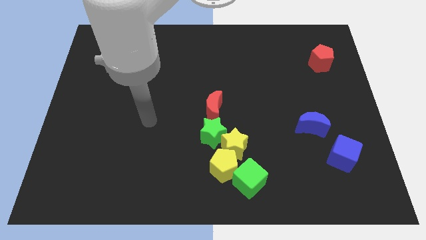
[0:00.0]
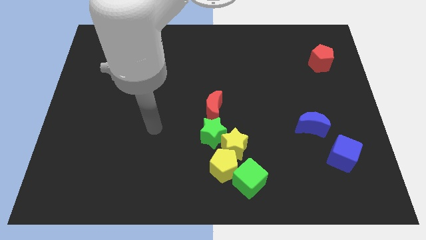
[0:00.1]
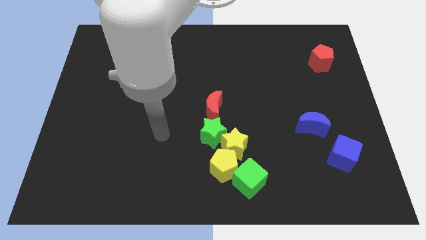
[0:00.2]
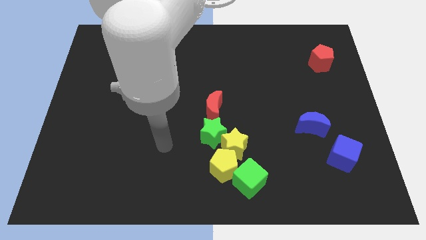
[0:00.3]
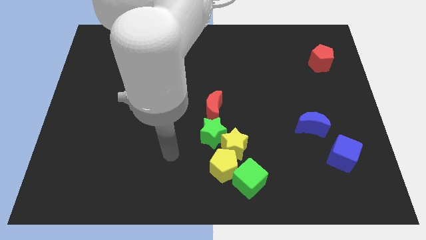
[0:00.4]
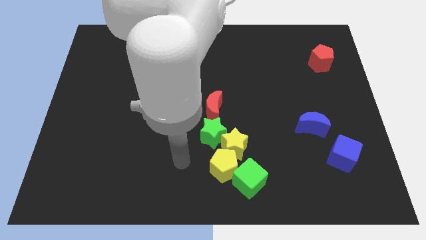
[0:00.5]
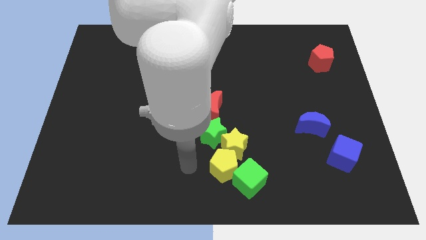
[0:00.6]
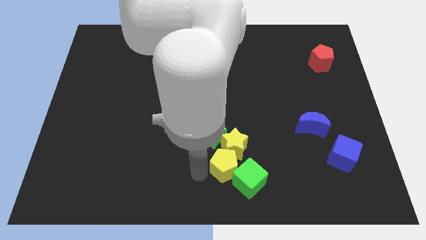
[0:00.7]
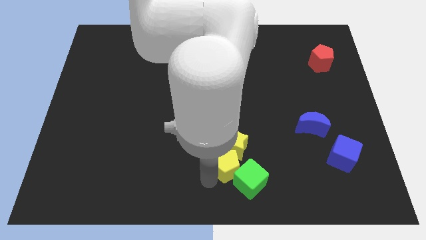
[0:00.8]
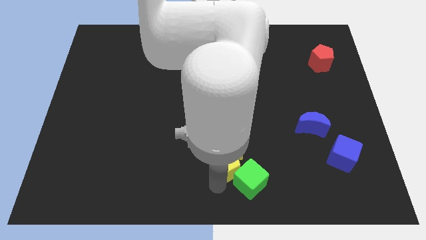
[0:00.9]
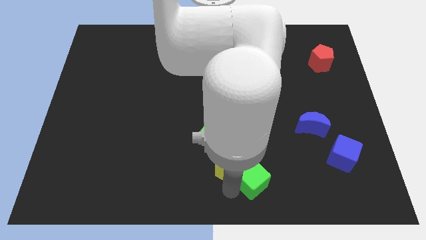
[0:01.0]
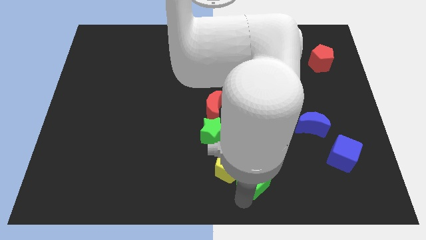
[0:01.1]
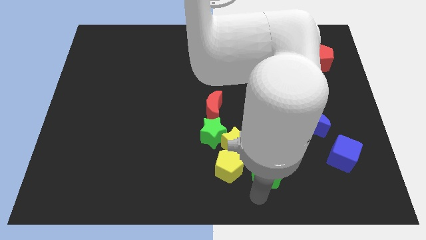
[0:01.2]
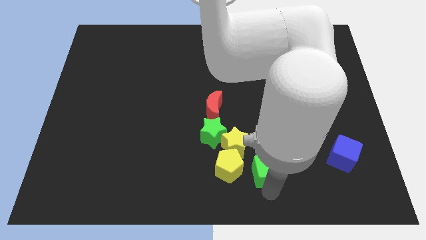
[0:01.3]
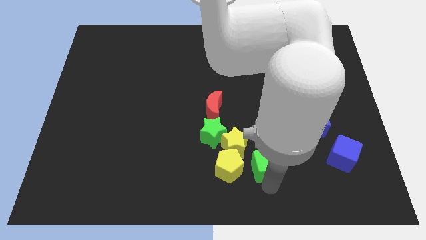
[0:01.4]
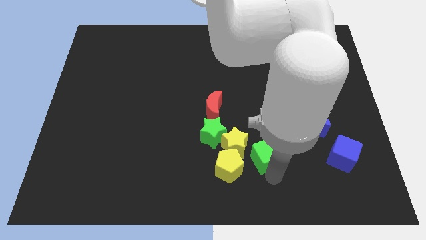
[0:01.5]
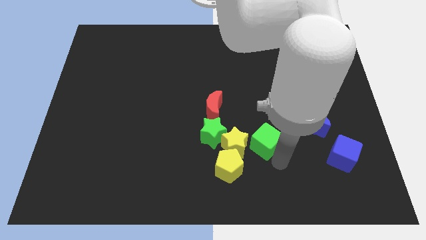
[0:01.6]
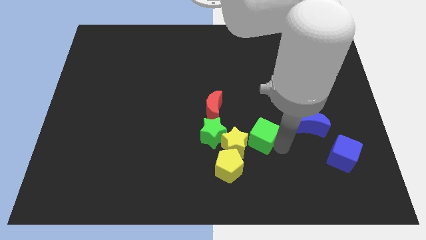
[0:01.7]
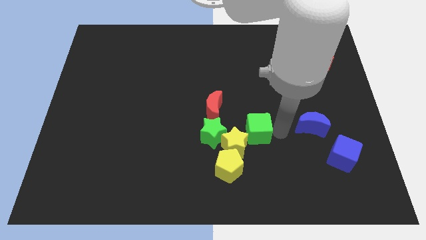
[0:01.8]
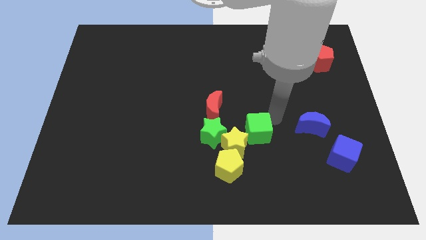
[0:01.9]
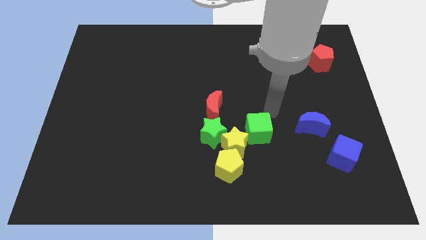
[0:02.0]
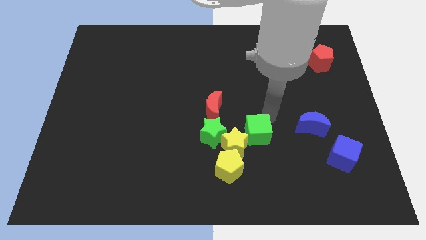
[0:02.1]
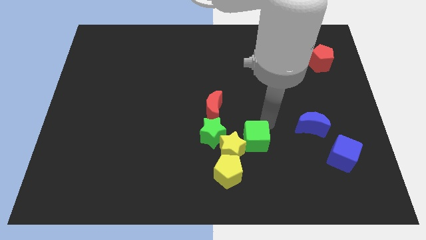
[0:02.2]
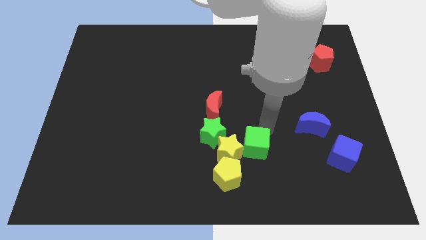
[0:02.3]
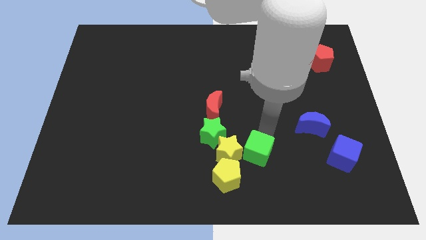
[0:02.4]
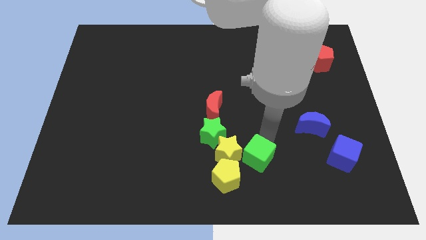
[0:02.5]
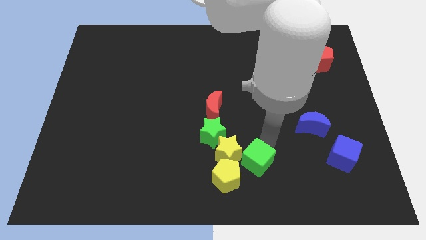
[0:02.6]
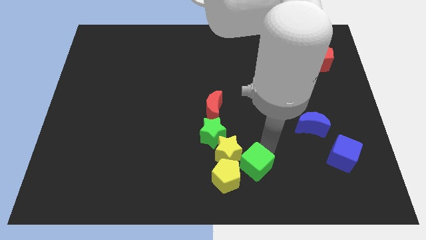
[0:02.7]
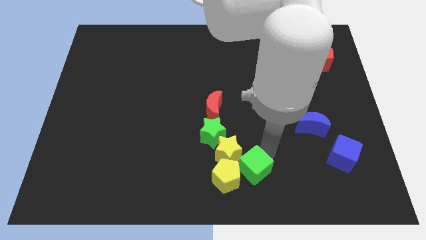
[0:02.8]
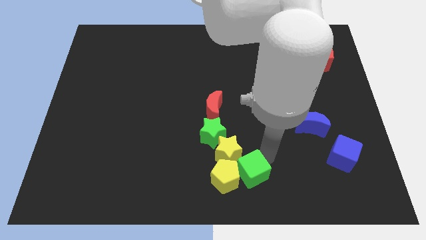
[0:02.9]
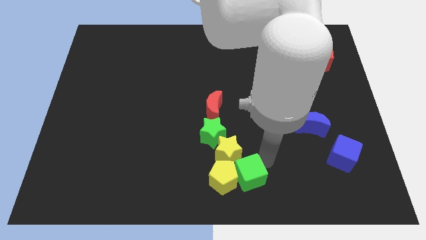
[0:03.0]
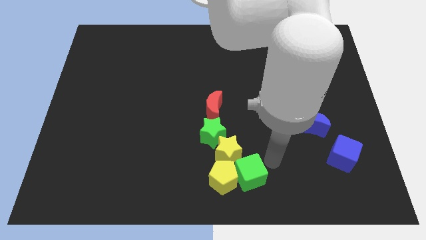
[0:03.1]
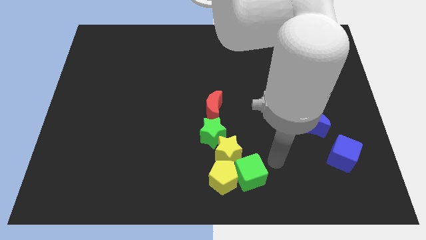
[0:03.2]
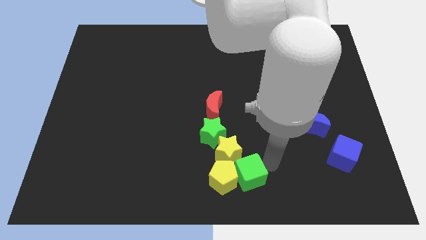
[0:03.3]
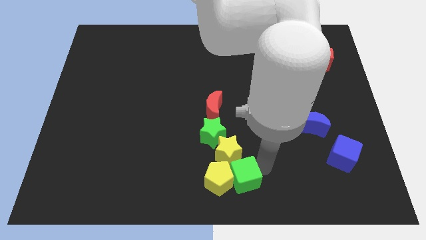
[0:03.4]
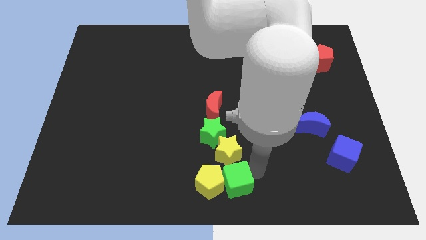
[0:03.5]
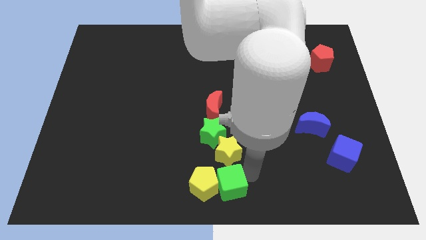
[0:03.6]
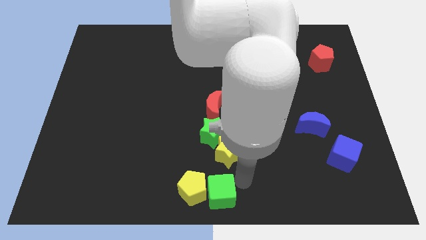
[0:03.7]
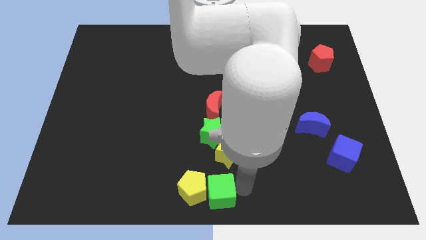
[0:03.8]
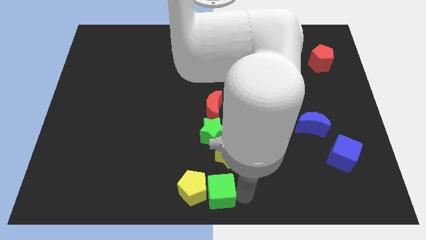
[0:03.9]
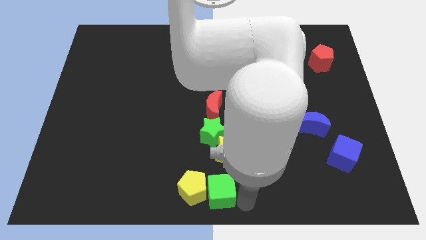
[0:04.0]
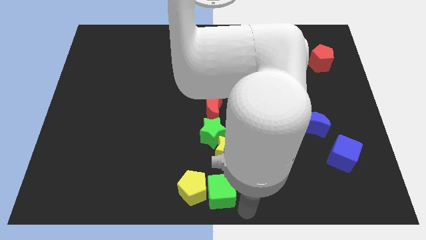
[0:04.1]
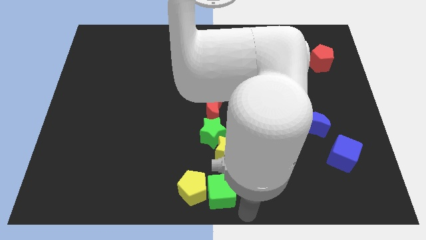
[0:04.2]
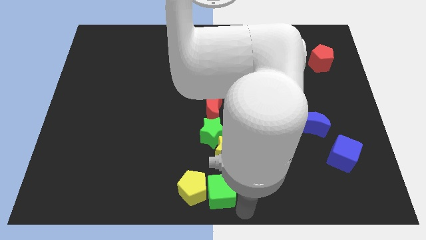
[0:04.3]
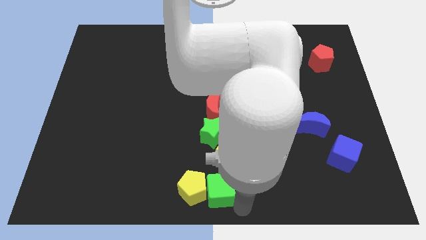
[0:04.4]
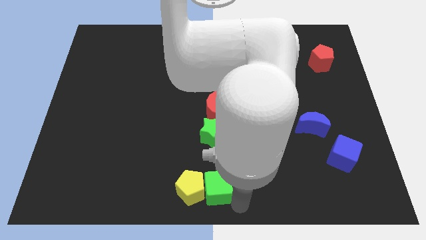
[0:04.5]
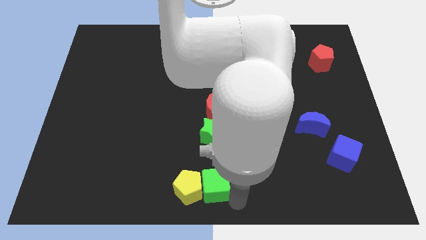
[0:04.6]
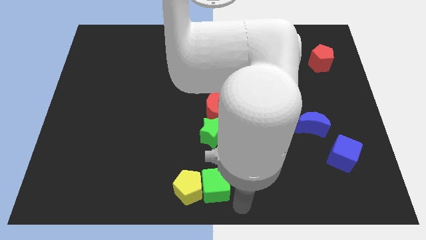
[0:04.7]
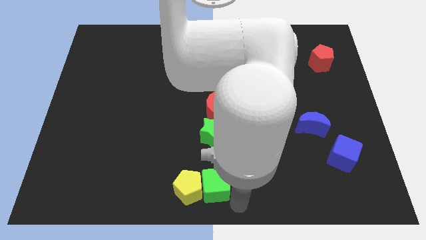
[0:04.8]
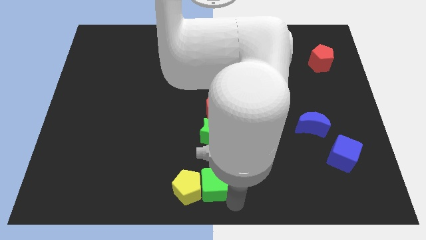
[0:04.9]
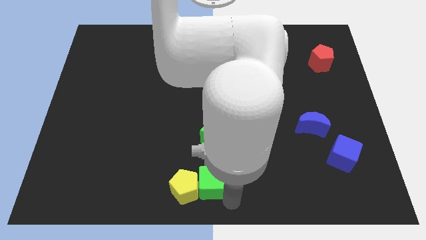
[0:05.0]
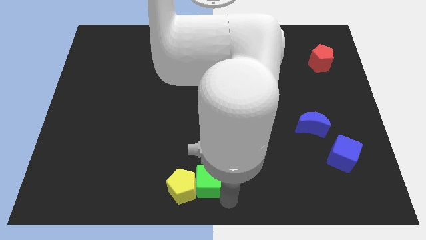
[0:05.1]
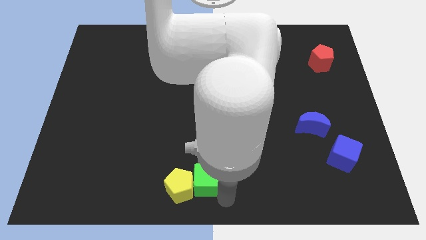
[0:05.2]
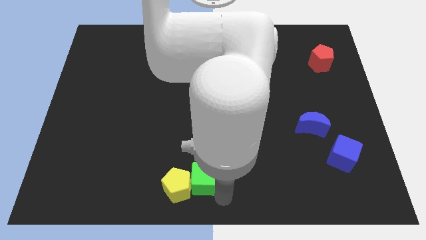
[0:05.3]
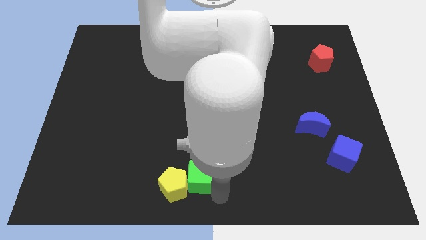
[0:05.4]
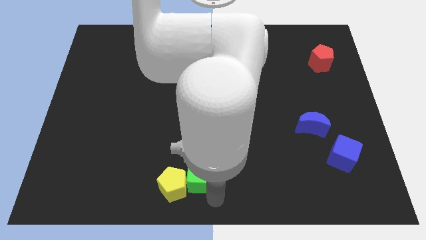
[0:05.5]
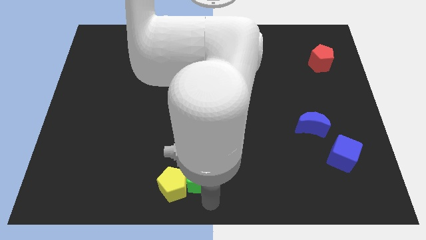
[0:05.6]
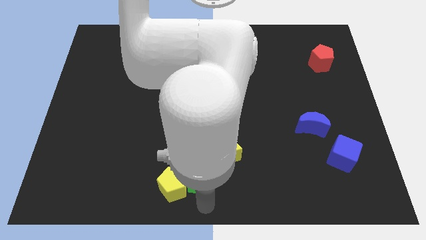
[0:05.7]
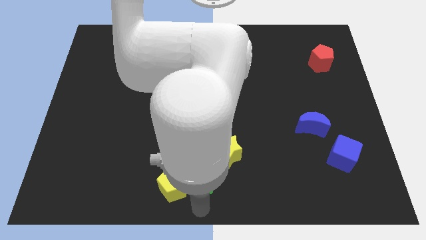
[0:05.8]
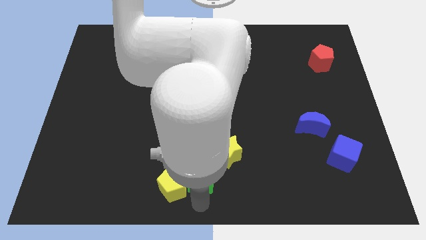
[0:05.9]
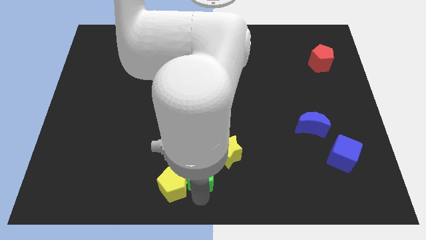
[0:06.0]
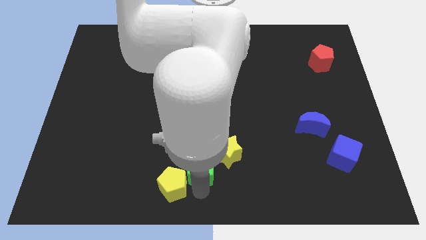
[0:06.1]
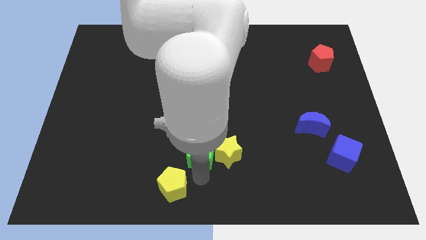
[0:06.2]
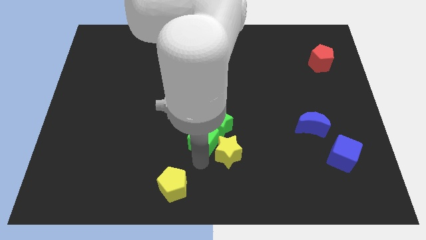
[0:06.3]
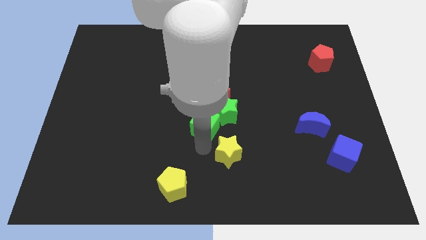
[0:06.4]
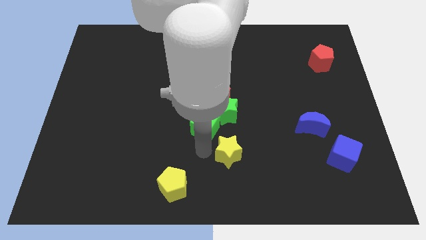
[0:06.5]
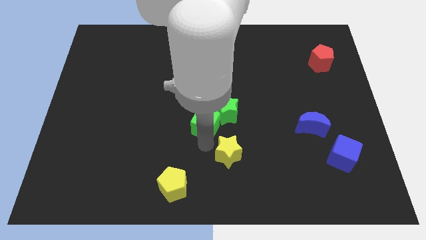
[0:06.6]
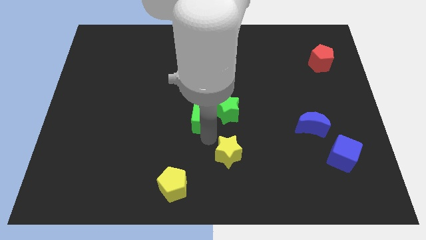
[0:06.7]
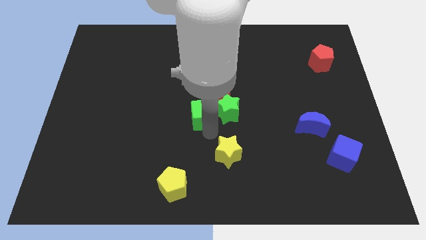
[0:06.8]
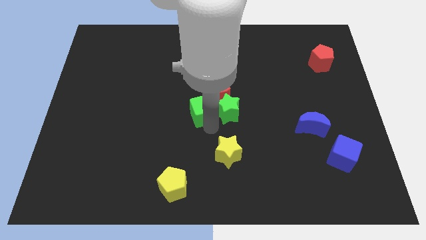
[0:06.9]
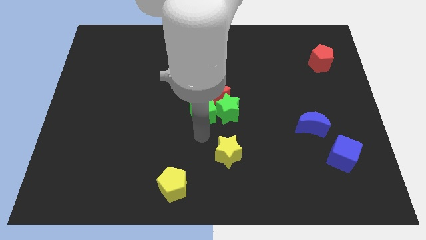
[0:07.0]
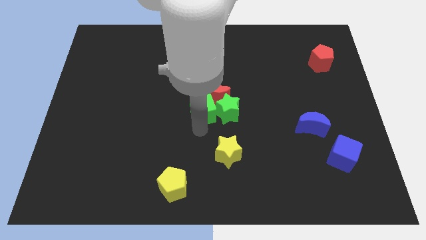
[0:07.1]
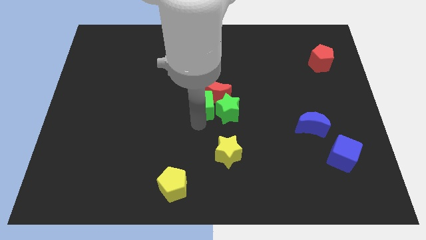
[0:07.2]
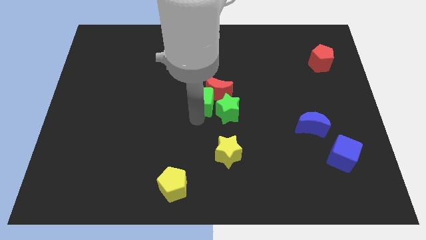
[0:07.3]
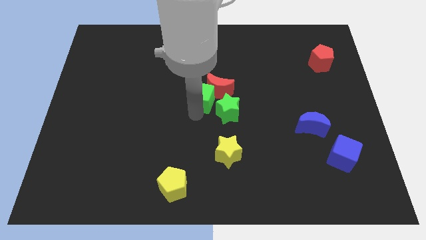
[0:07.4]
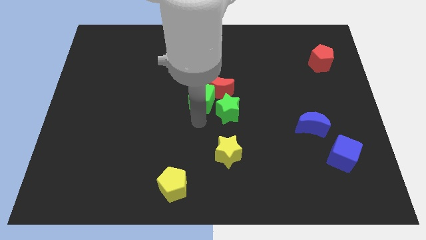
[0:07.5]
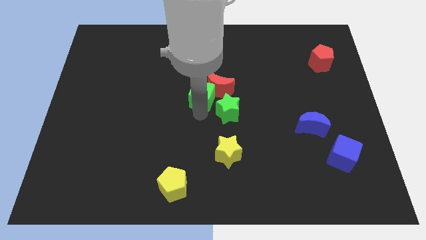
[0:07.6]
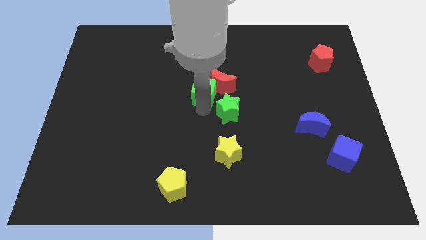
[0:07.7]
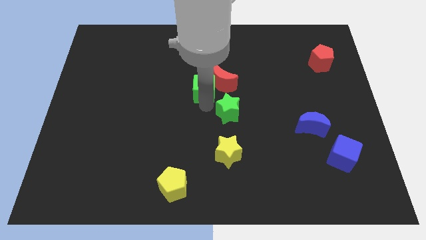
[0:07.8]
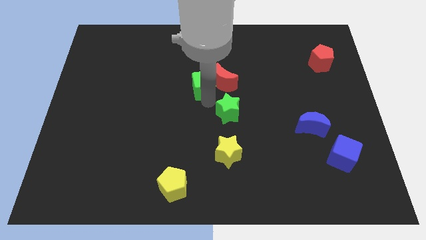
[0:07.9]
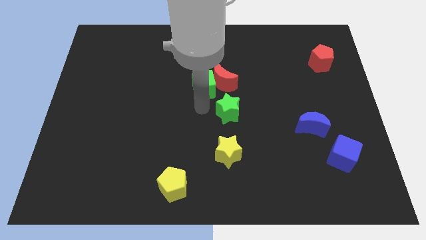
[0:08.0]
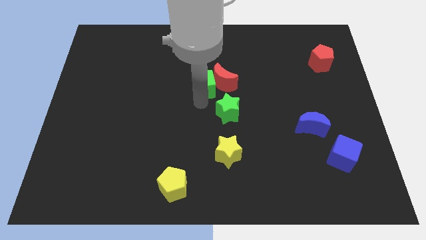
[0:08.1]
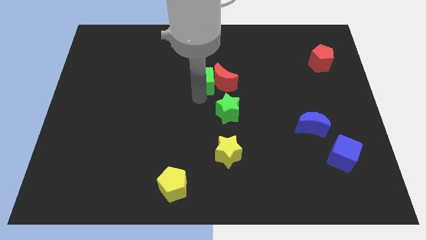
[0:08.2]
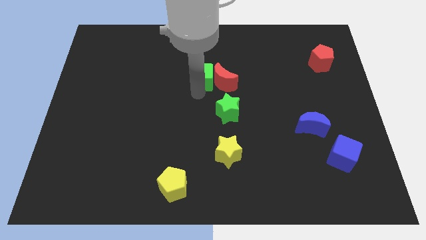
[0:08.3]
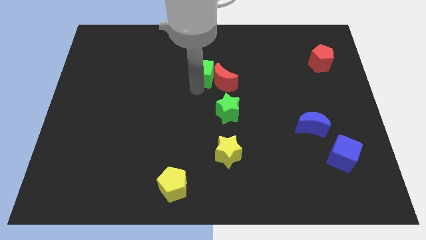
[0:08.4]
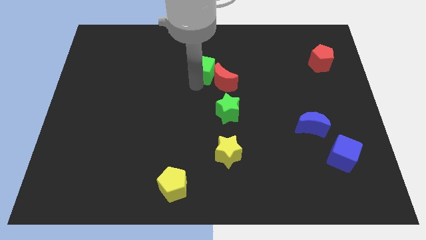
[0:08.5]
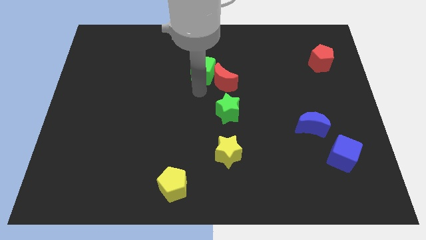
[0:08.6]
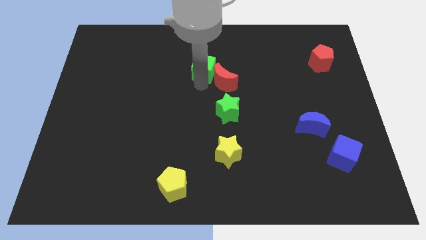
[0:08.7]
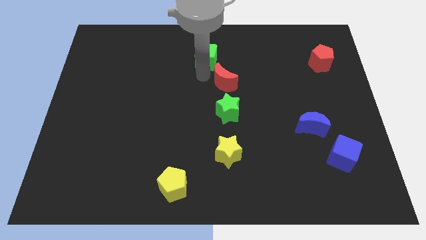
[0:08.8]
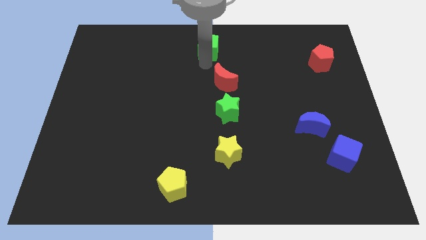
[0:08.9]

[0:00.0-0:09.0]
push the green cube to the top
